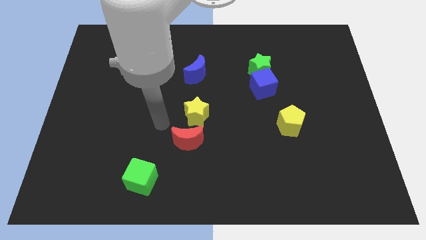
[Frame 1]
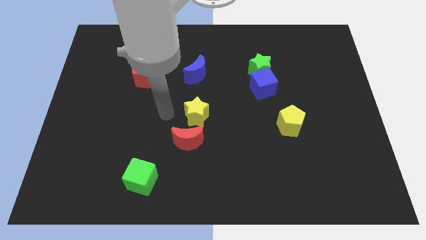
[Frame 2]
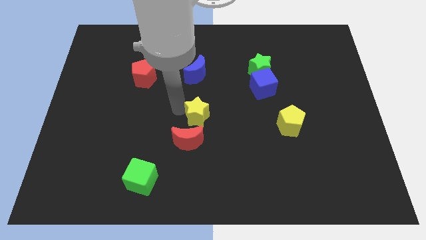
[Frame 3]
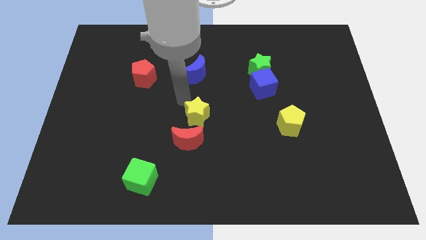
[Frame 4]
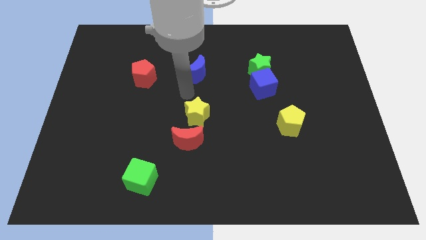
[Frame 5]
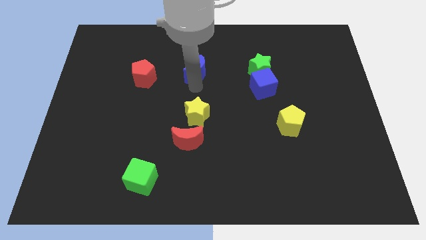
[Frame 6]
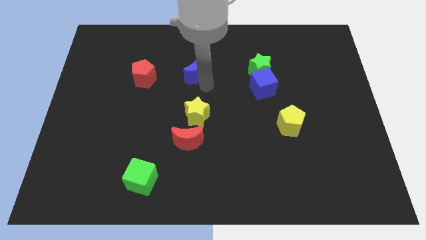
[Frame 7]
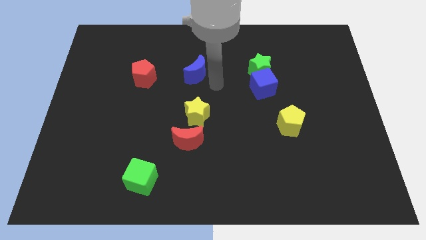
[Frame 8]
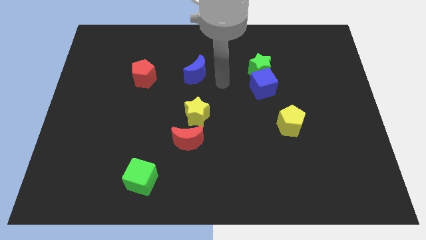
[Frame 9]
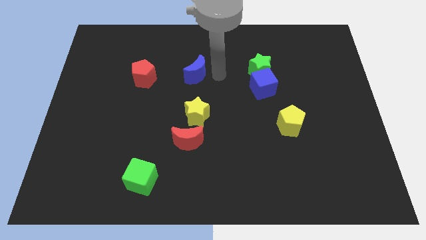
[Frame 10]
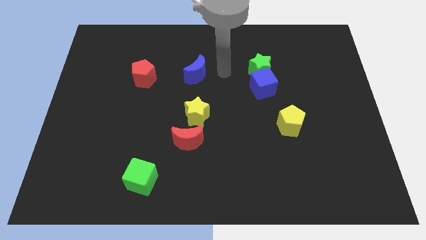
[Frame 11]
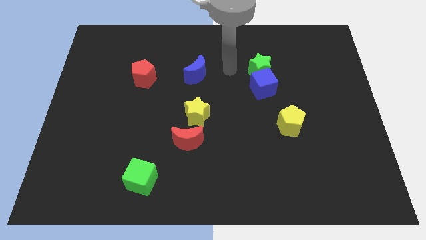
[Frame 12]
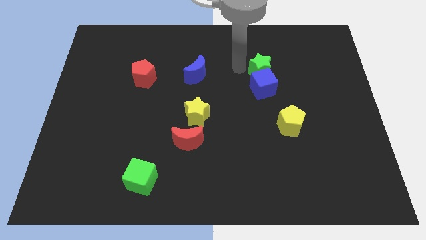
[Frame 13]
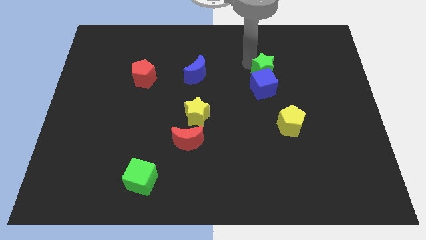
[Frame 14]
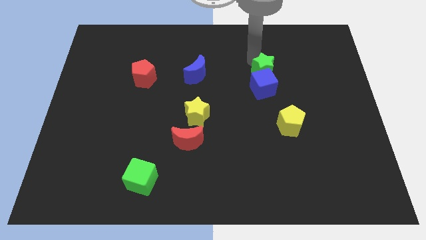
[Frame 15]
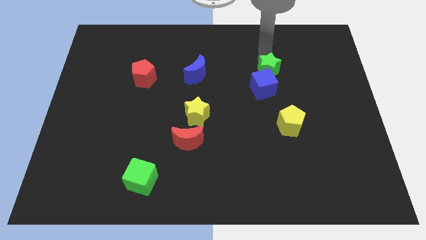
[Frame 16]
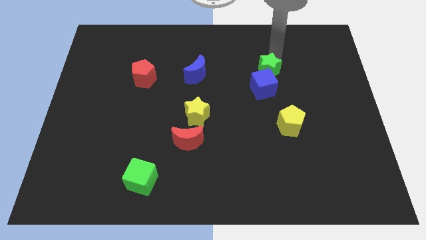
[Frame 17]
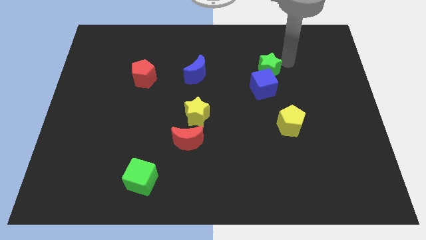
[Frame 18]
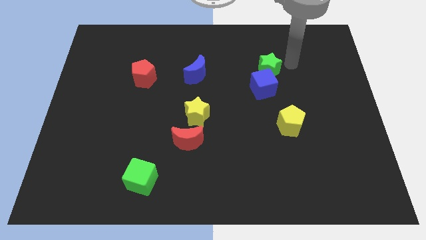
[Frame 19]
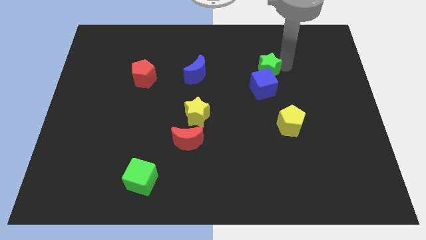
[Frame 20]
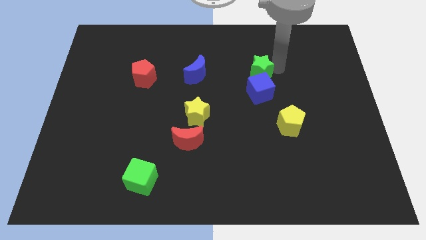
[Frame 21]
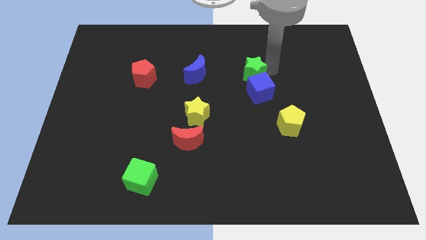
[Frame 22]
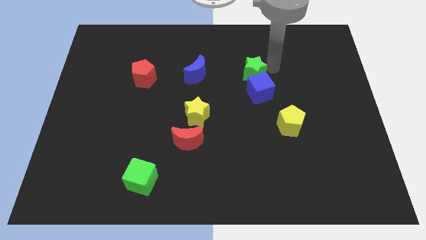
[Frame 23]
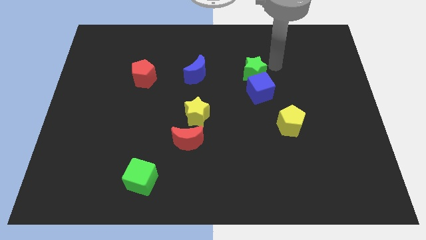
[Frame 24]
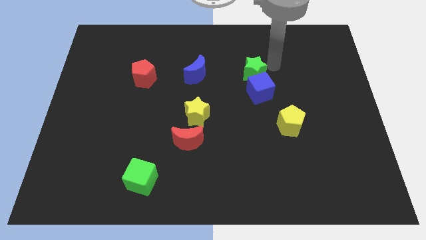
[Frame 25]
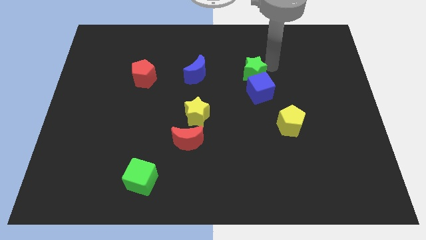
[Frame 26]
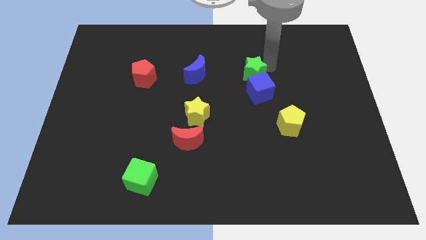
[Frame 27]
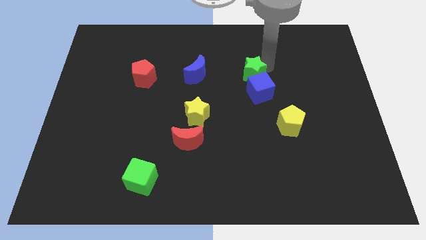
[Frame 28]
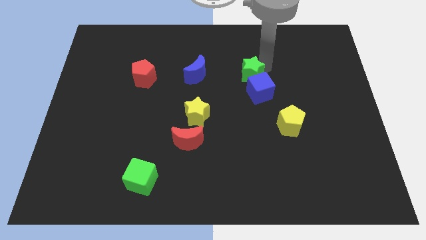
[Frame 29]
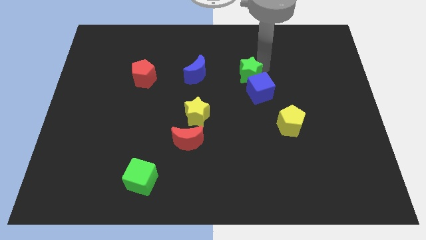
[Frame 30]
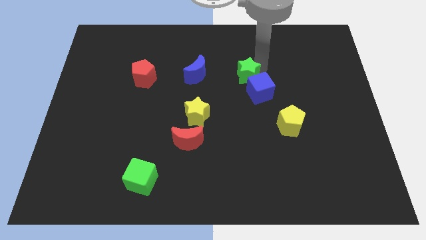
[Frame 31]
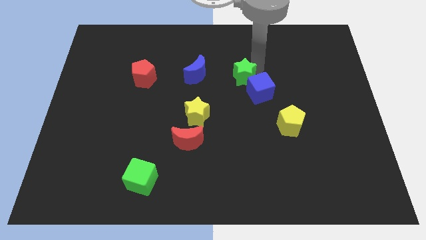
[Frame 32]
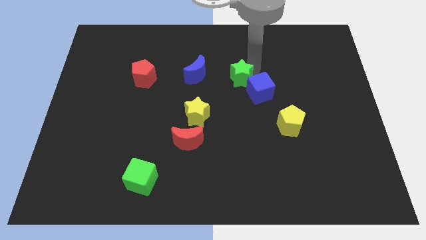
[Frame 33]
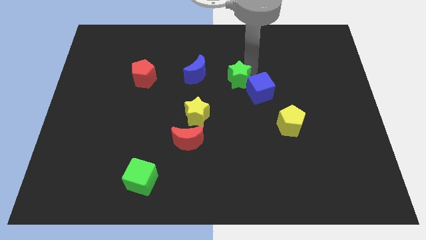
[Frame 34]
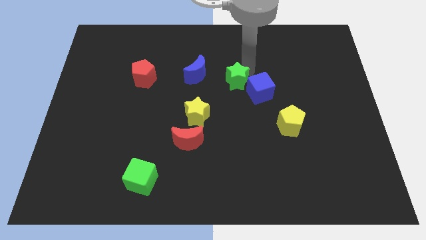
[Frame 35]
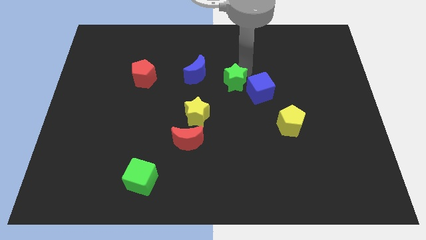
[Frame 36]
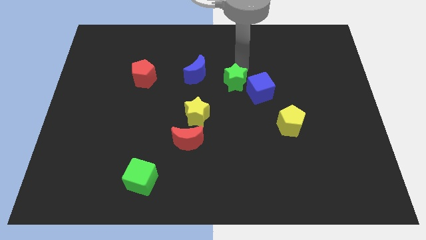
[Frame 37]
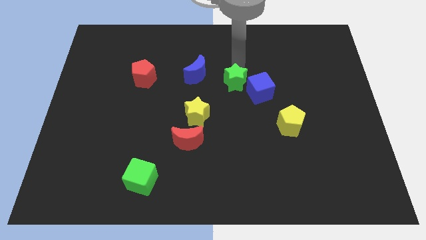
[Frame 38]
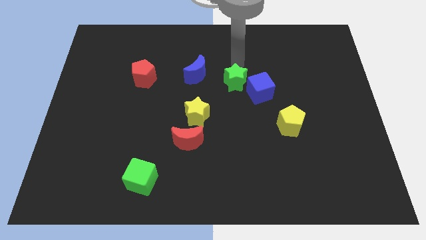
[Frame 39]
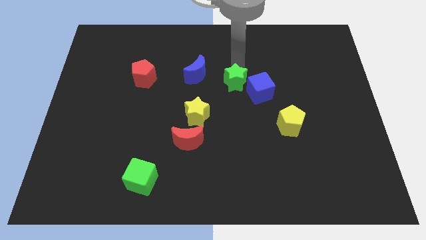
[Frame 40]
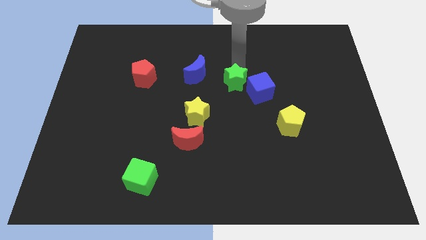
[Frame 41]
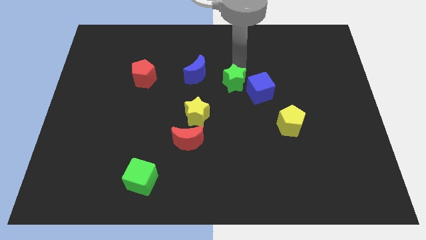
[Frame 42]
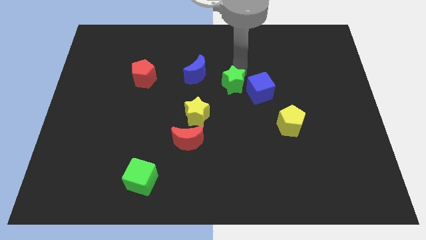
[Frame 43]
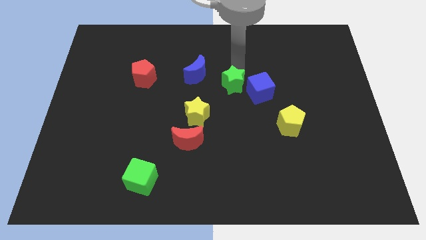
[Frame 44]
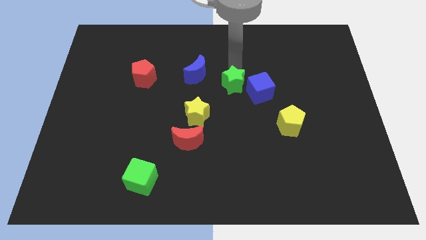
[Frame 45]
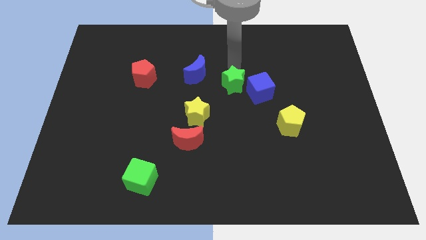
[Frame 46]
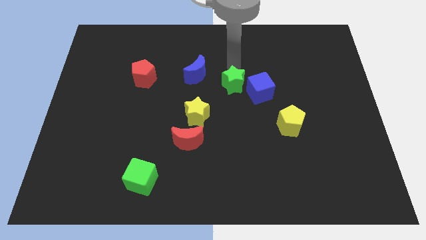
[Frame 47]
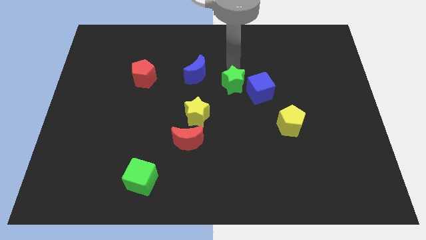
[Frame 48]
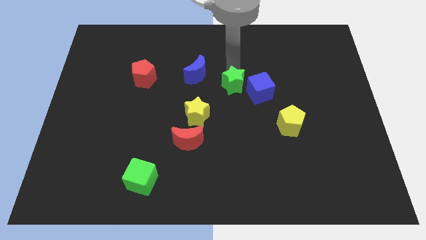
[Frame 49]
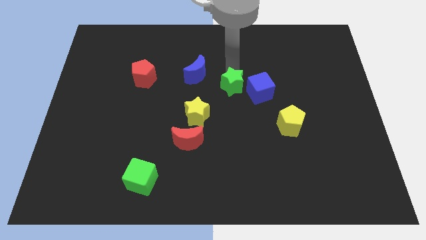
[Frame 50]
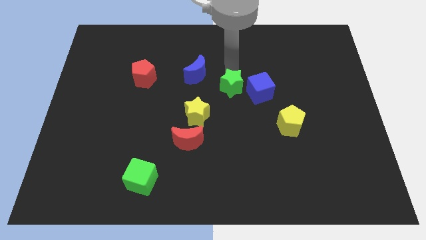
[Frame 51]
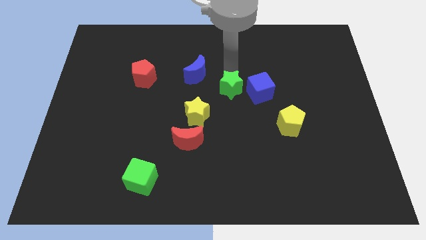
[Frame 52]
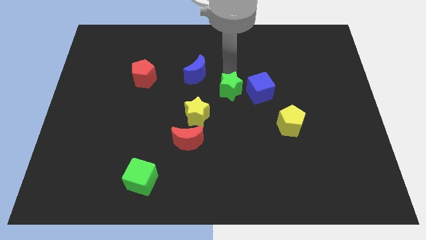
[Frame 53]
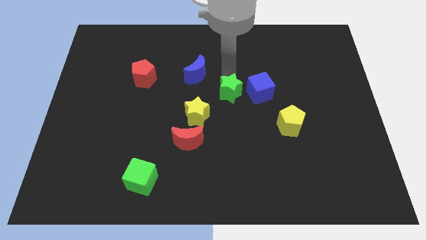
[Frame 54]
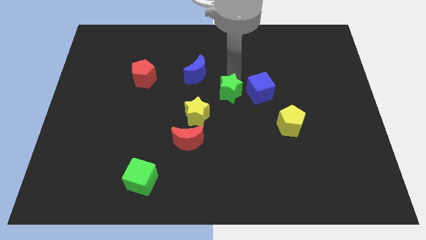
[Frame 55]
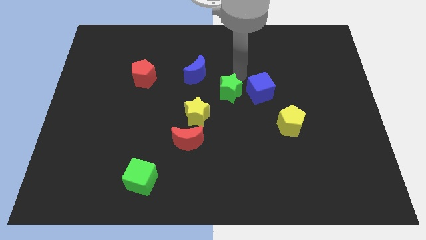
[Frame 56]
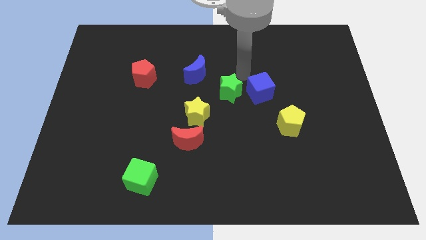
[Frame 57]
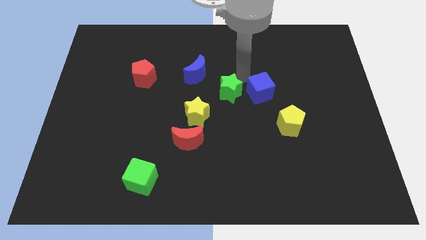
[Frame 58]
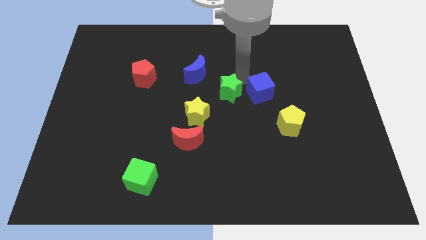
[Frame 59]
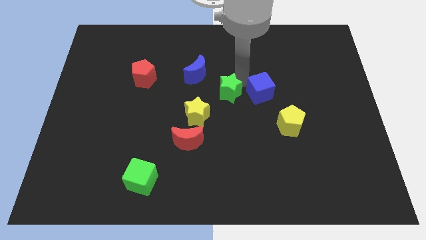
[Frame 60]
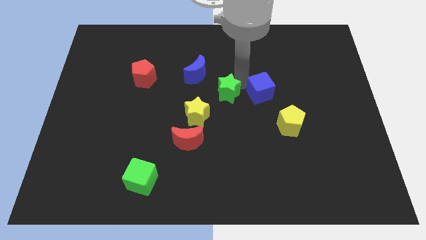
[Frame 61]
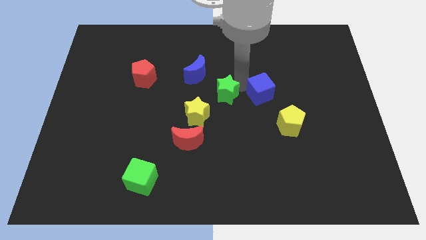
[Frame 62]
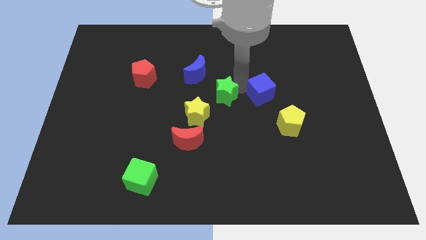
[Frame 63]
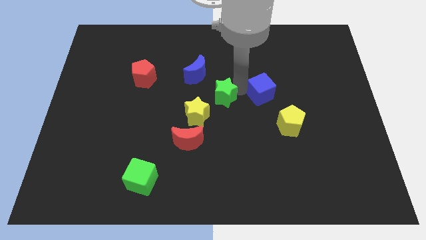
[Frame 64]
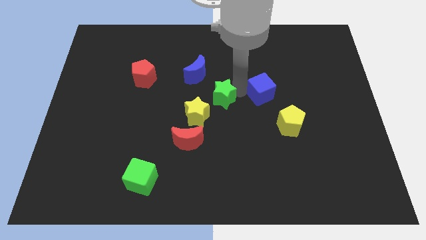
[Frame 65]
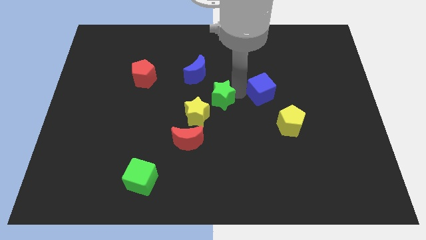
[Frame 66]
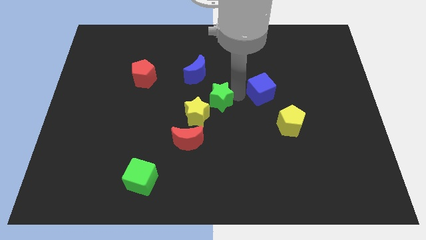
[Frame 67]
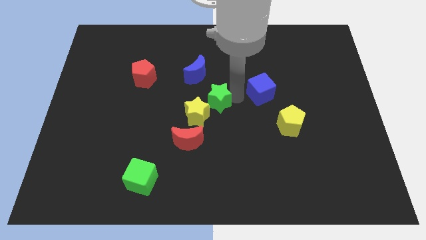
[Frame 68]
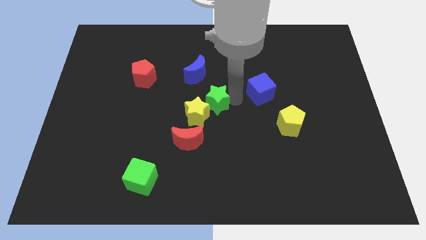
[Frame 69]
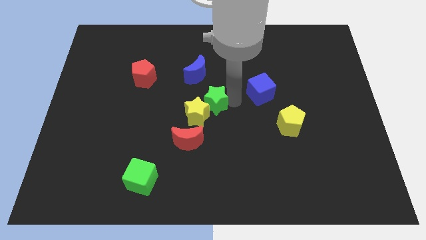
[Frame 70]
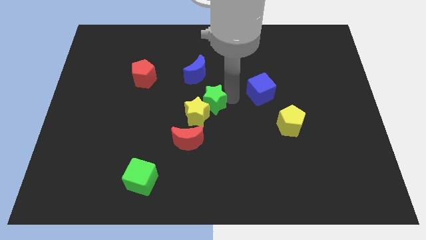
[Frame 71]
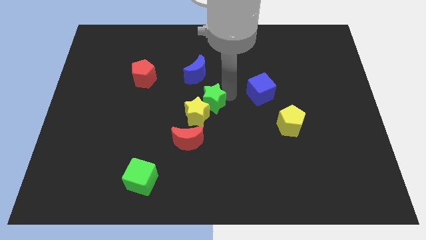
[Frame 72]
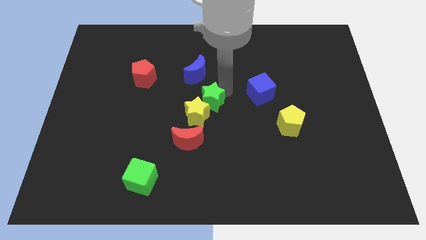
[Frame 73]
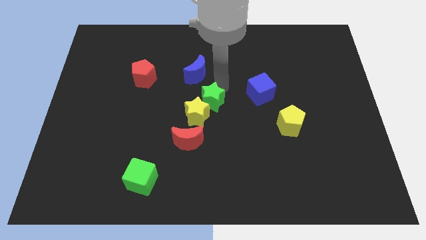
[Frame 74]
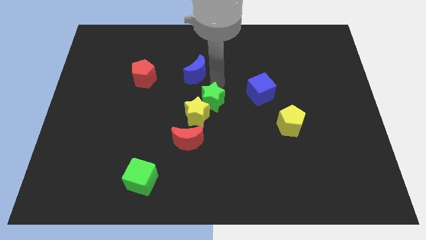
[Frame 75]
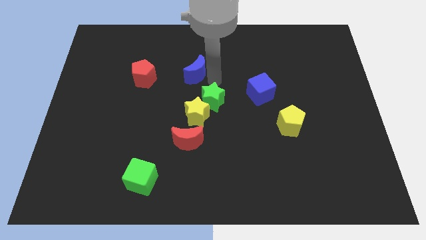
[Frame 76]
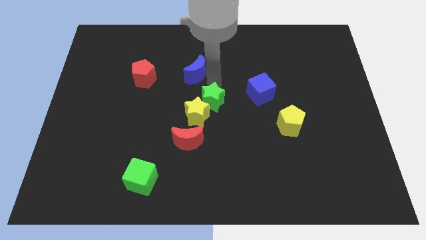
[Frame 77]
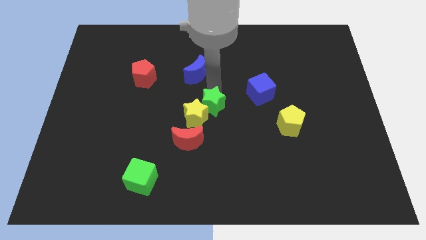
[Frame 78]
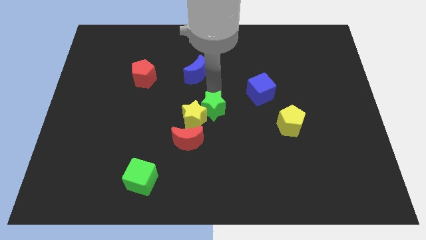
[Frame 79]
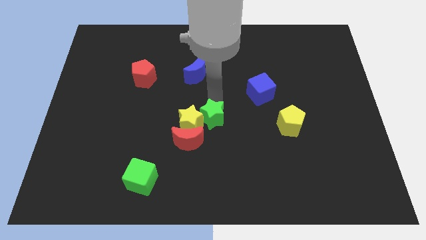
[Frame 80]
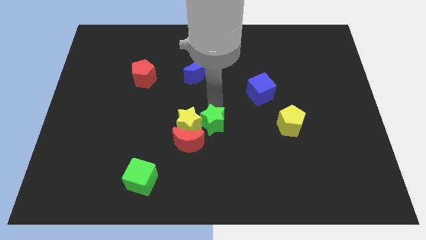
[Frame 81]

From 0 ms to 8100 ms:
move the green star down and left

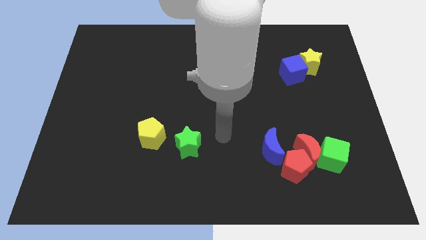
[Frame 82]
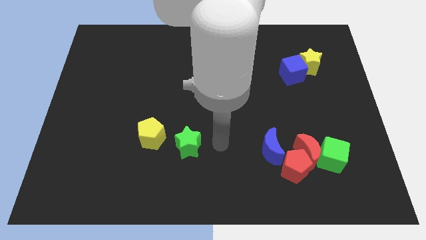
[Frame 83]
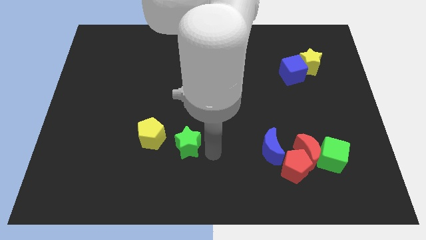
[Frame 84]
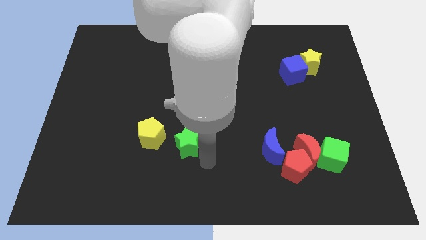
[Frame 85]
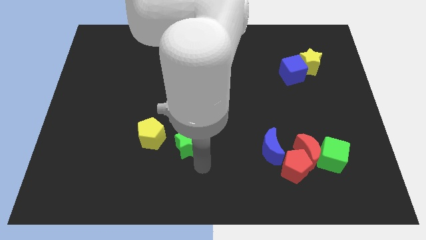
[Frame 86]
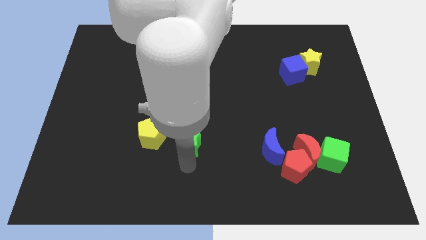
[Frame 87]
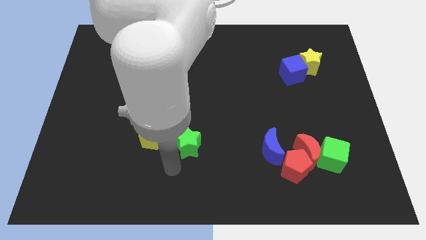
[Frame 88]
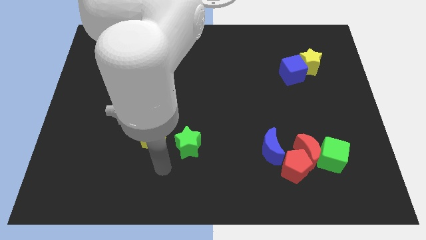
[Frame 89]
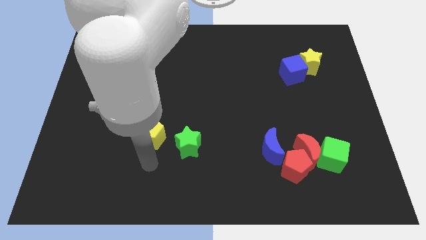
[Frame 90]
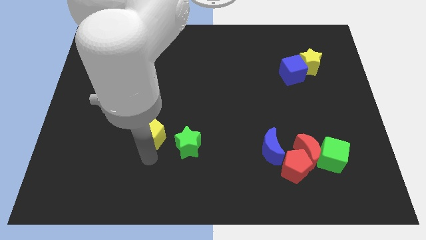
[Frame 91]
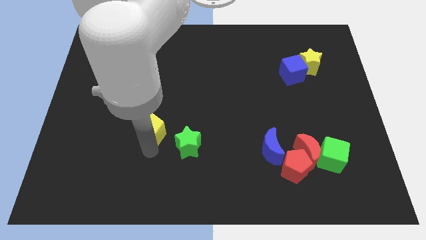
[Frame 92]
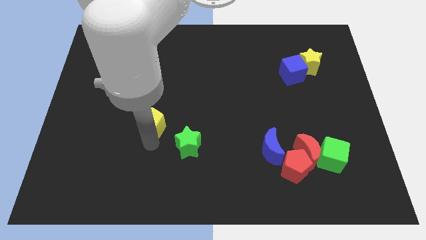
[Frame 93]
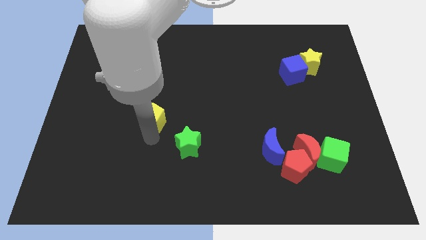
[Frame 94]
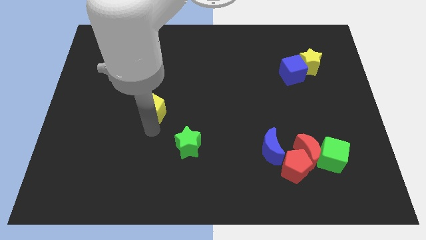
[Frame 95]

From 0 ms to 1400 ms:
slightly push the yellow pentagon upwards
